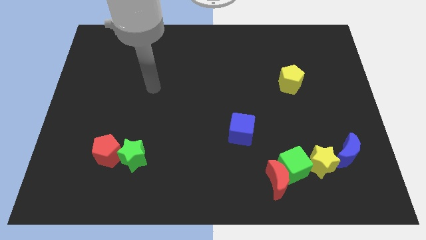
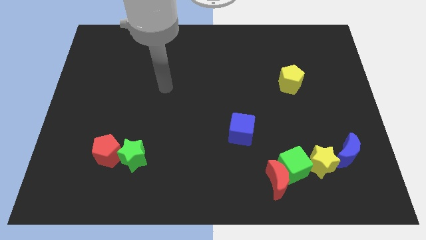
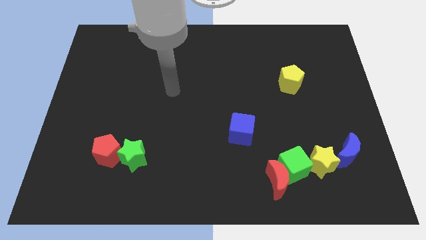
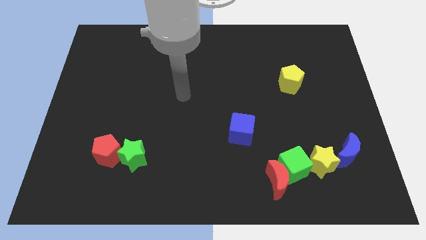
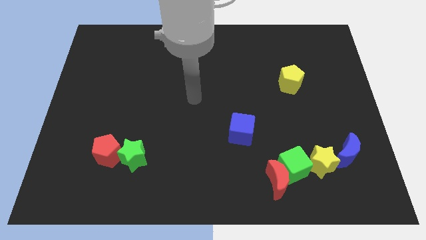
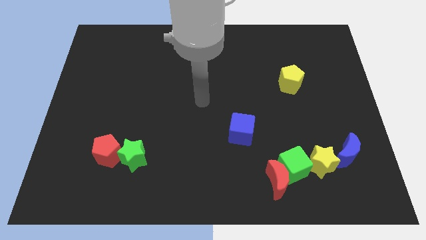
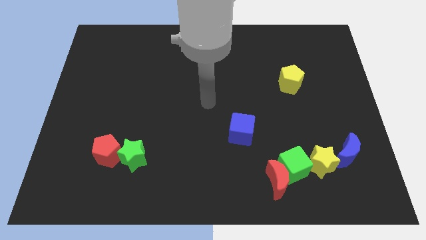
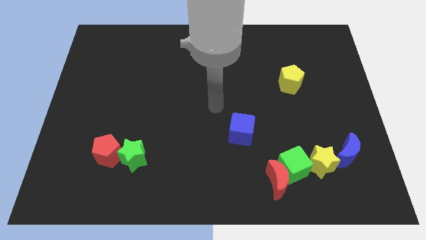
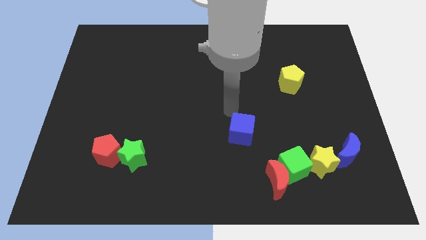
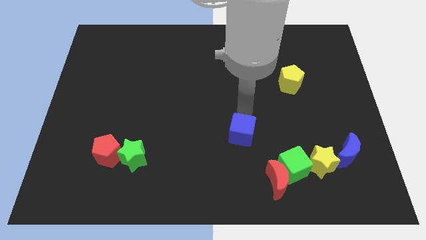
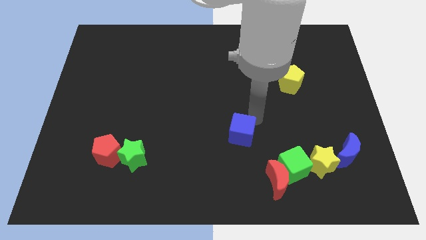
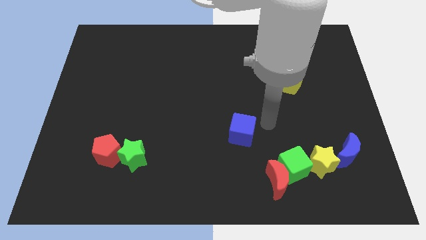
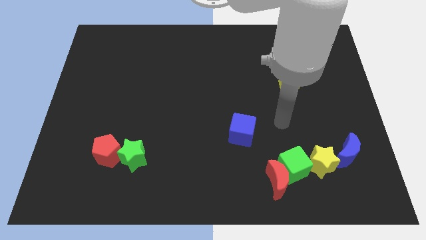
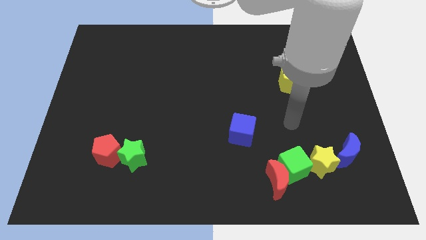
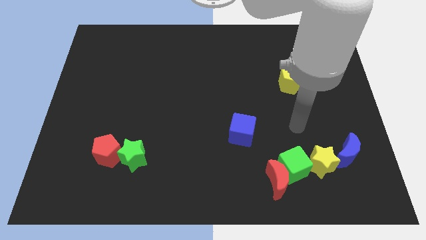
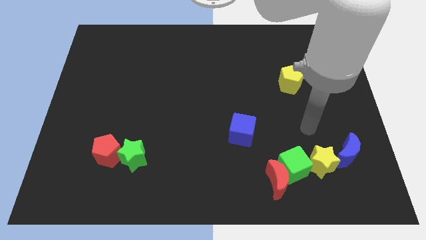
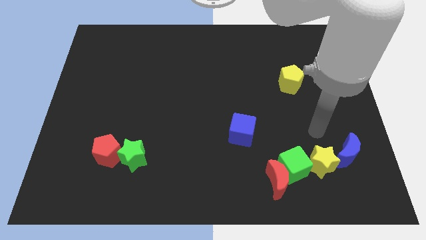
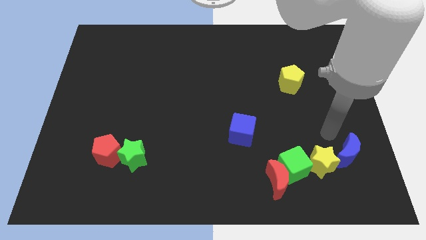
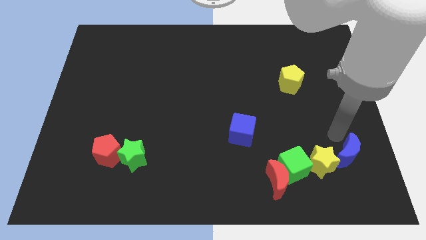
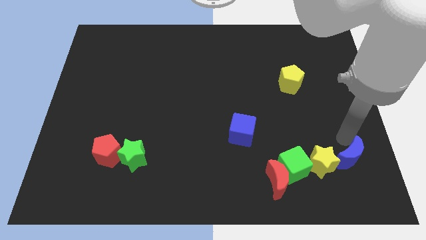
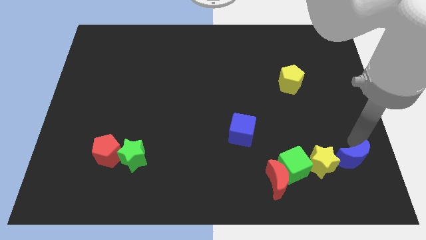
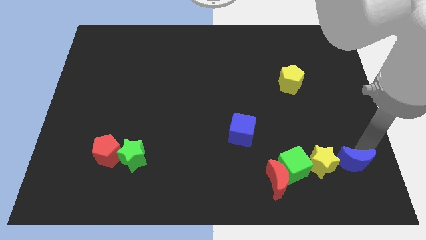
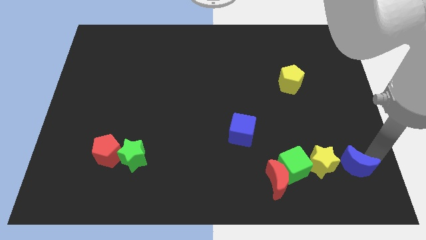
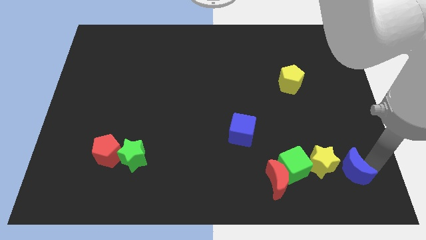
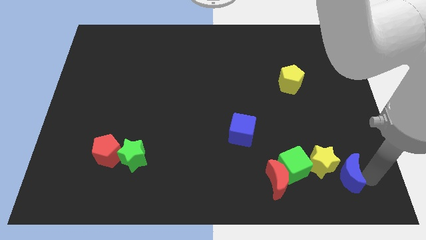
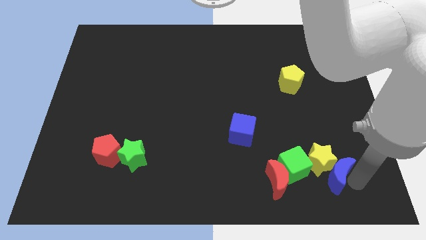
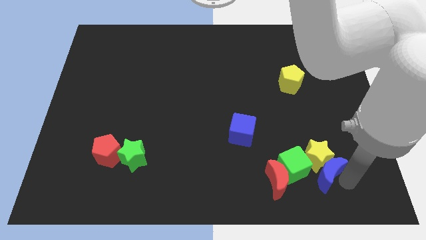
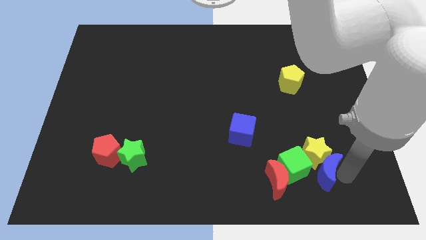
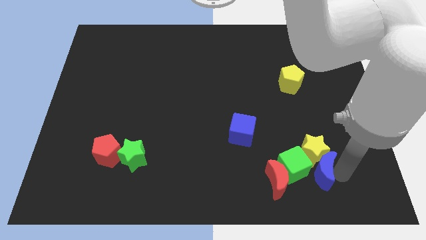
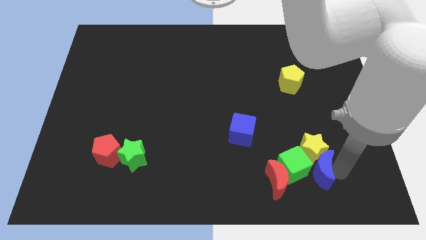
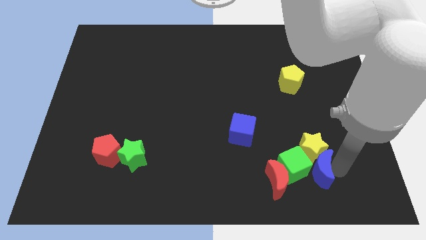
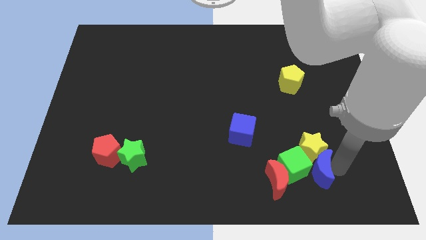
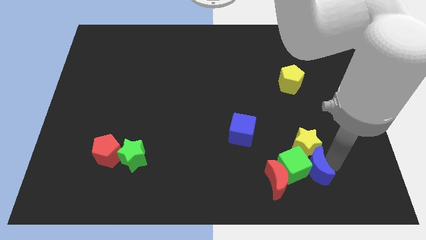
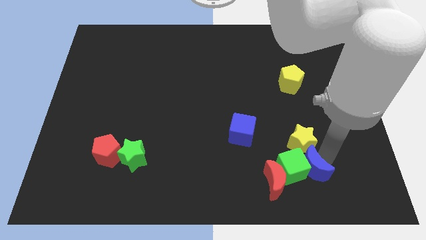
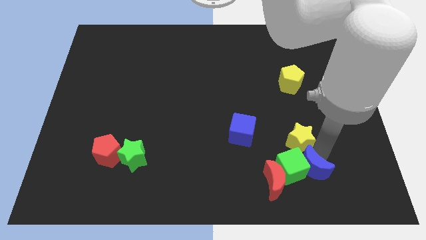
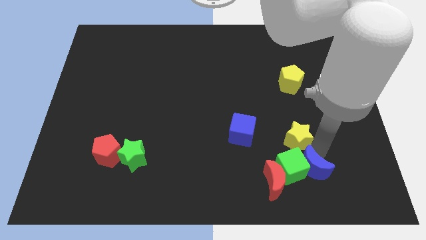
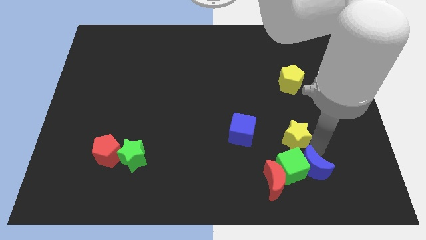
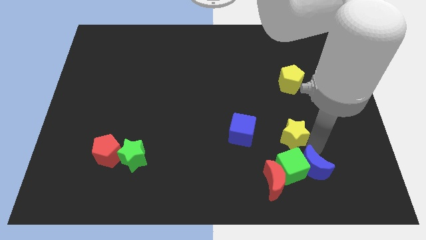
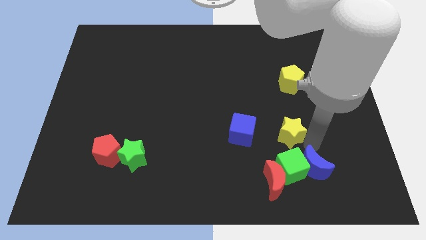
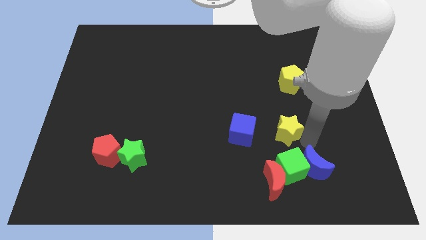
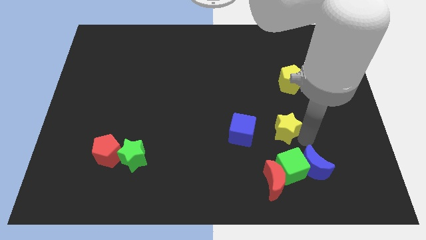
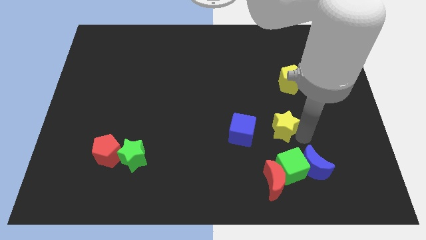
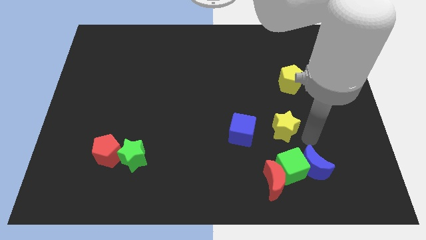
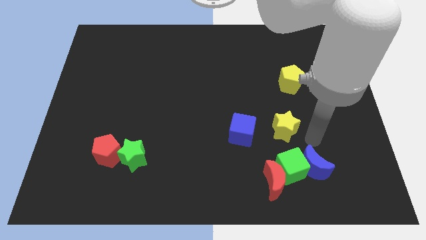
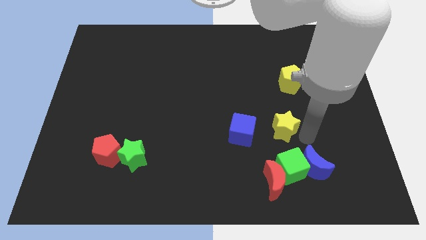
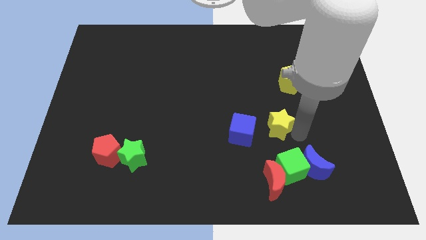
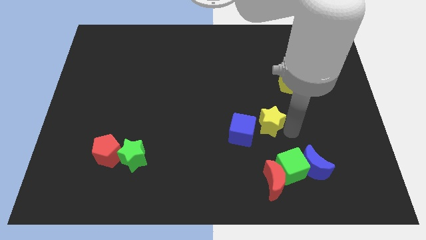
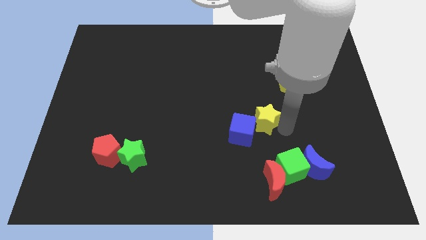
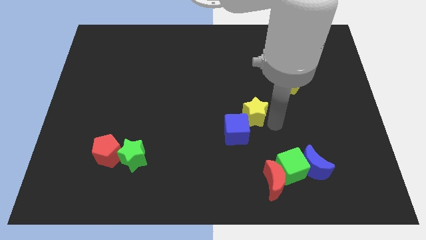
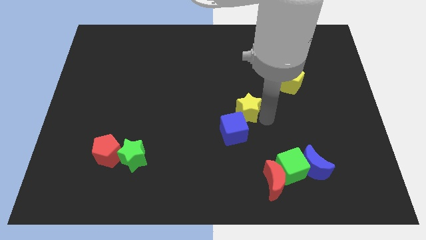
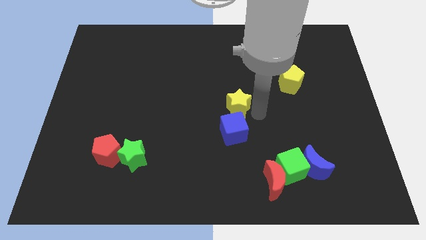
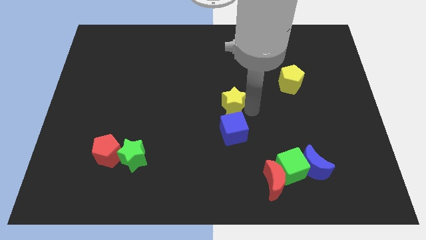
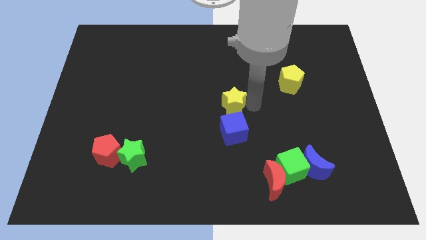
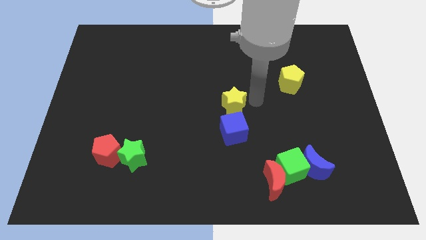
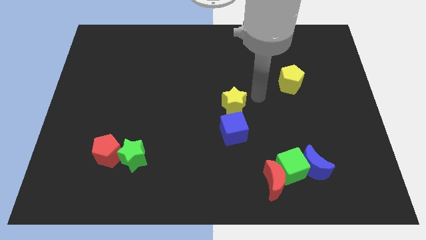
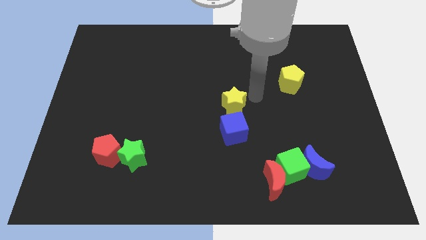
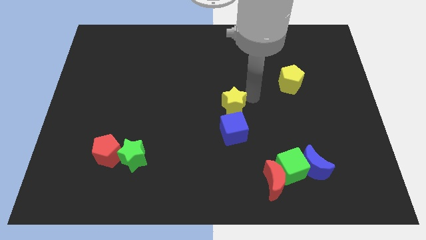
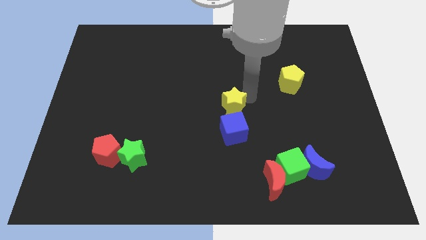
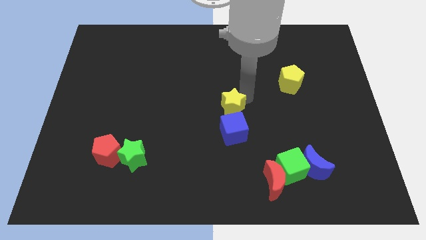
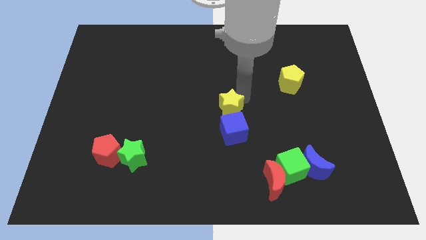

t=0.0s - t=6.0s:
put the yellow star to the top left side of the blue cube

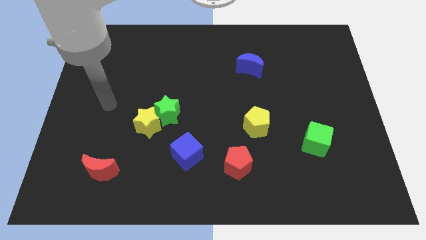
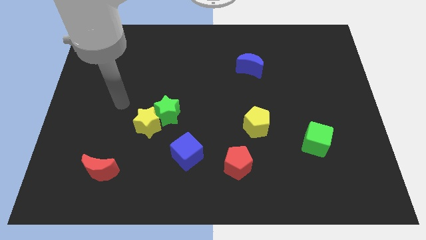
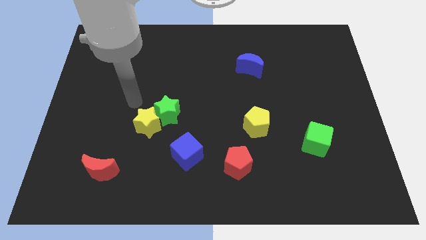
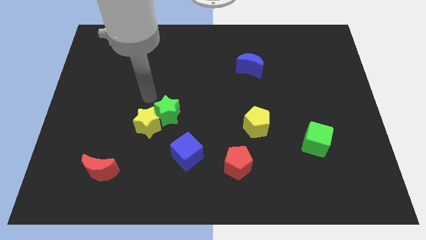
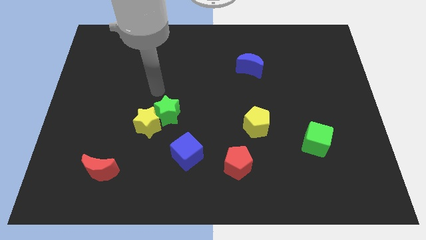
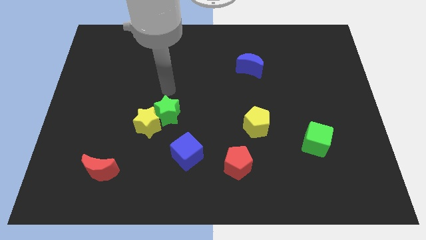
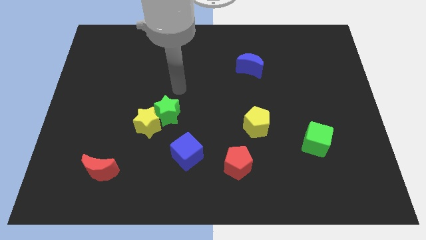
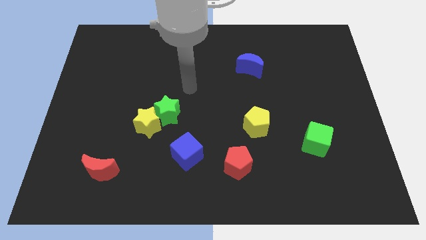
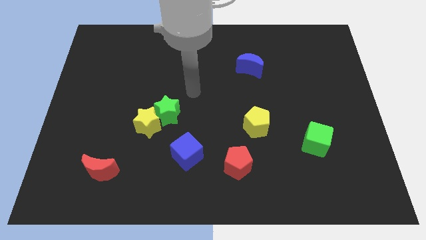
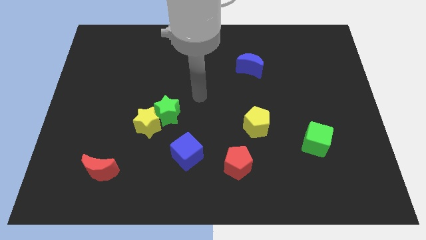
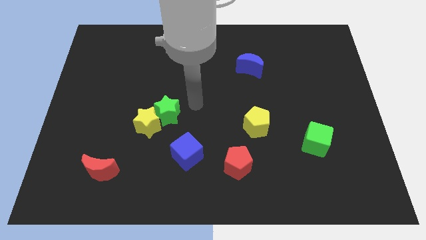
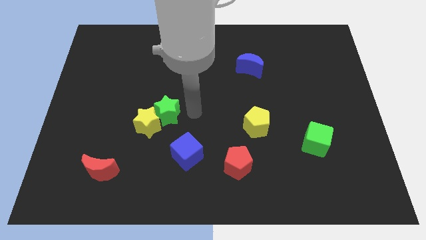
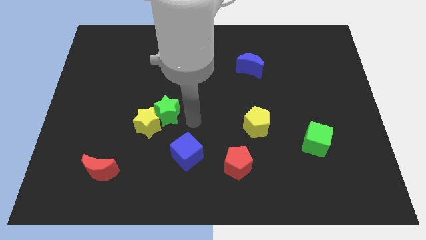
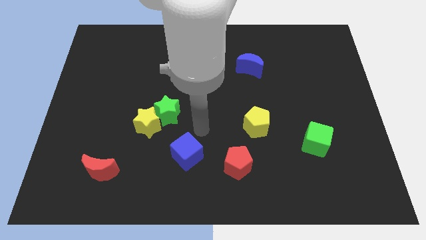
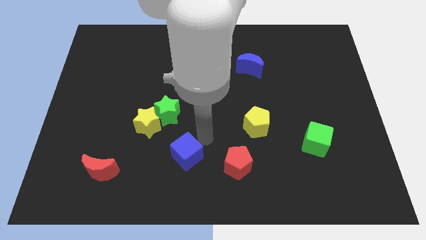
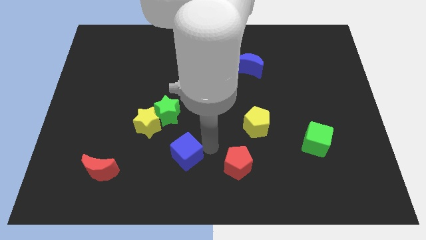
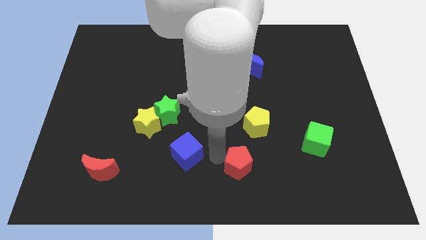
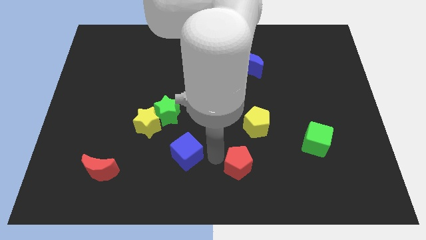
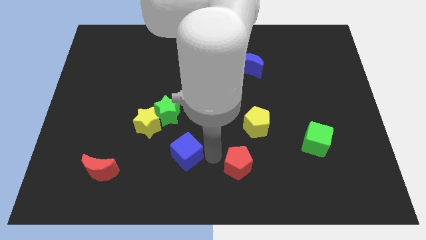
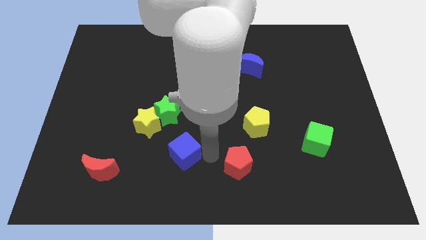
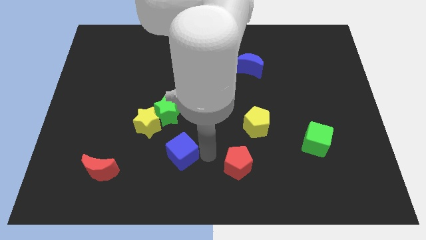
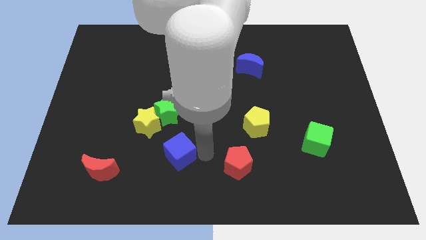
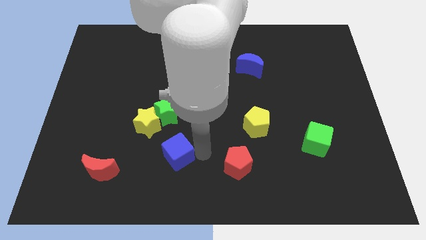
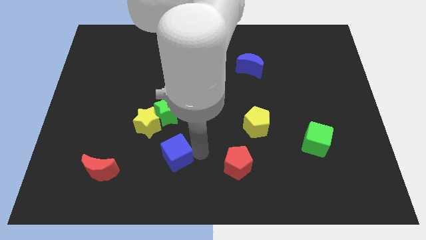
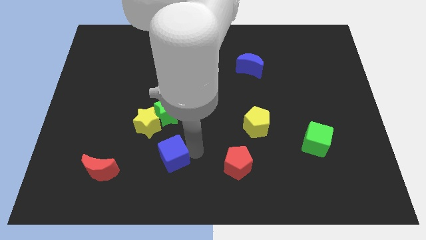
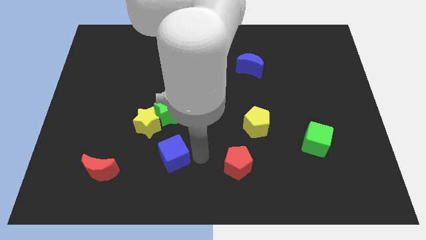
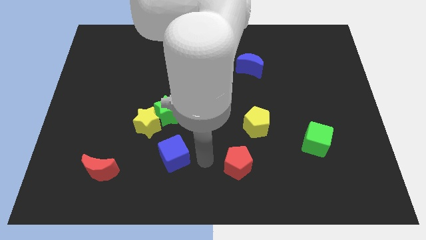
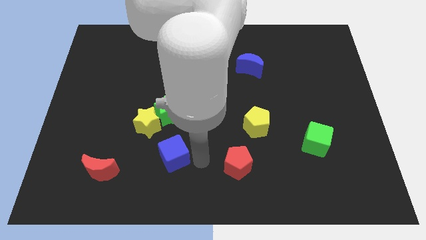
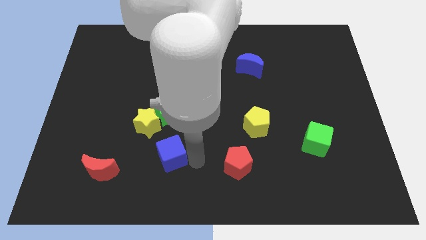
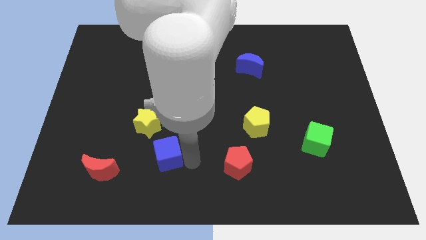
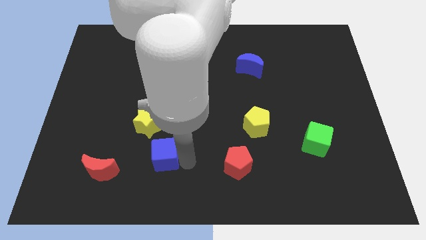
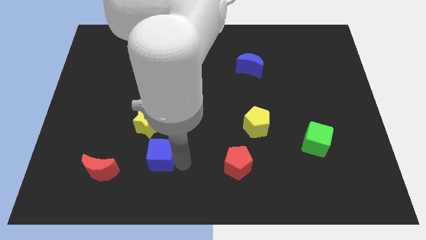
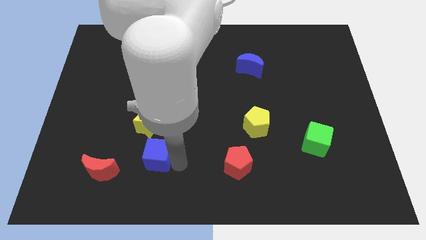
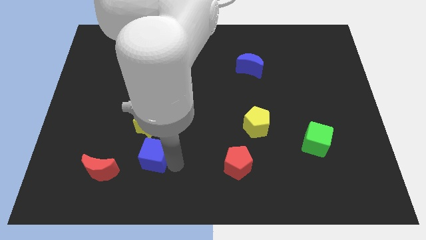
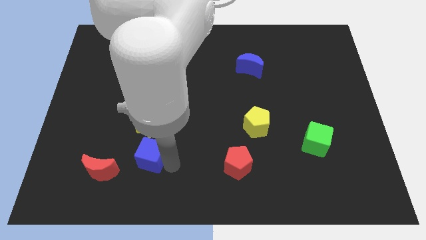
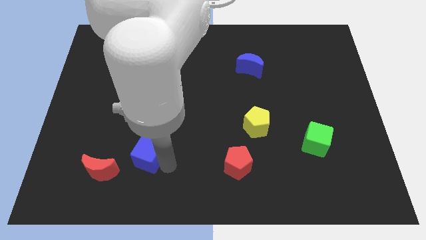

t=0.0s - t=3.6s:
move the blue cube to the top right side of the red moon
